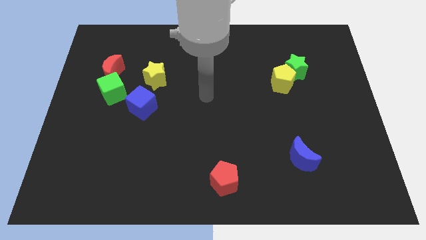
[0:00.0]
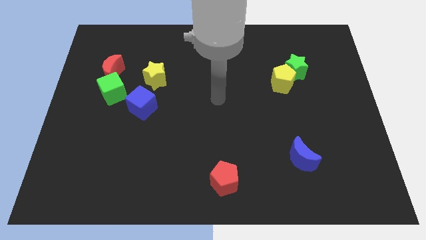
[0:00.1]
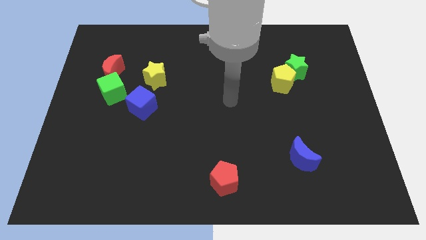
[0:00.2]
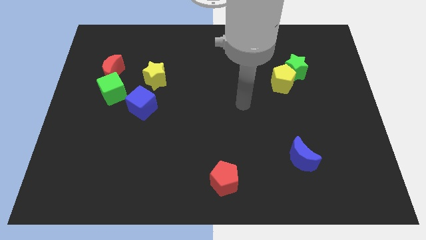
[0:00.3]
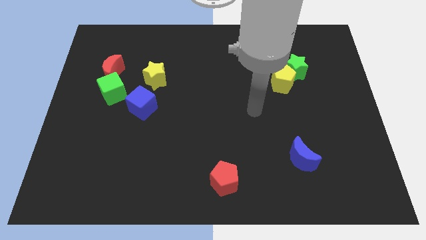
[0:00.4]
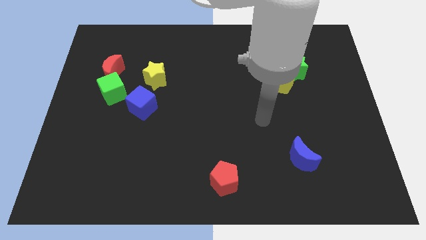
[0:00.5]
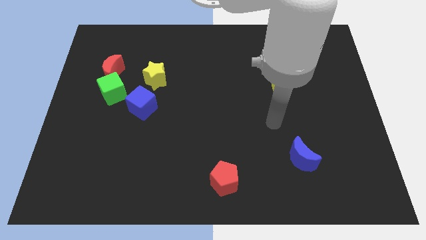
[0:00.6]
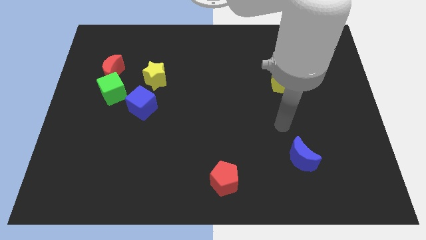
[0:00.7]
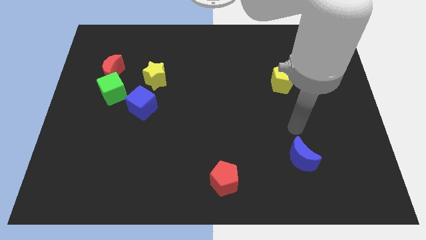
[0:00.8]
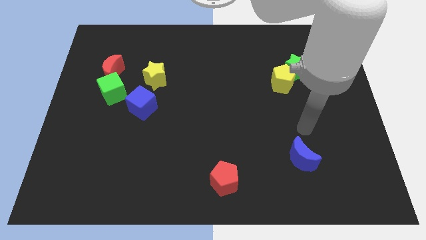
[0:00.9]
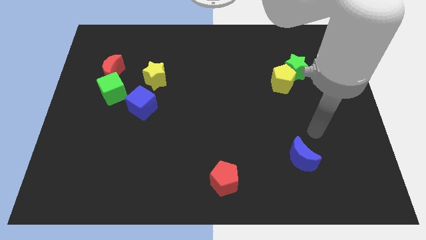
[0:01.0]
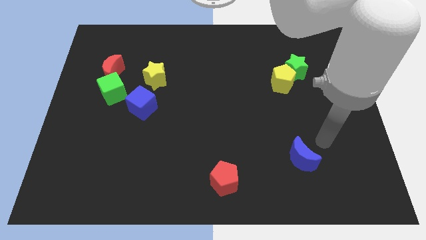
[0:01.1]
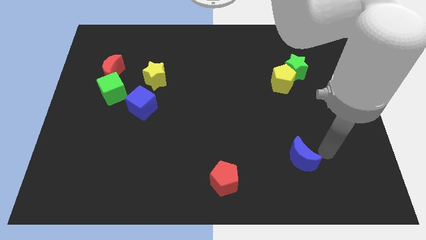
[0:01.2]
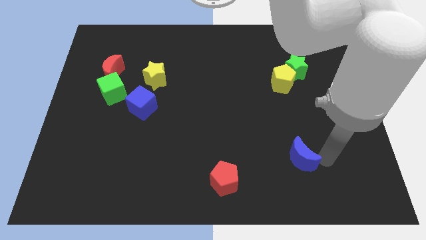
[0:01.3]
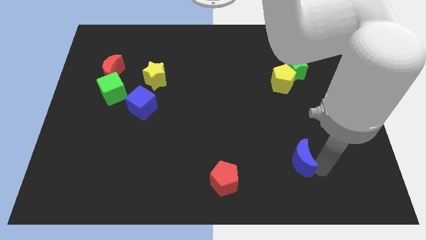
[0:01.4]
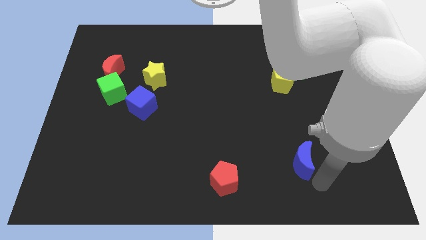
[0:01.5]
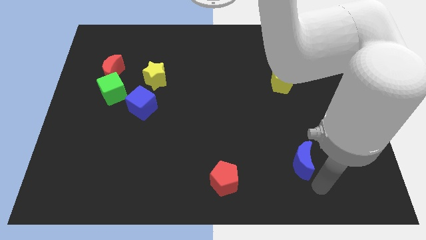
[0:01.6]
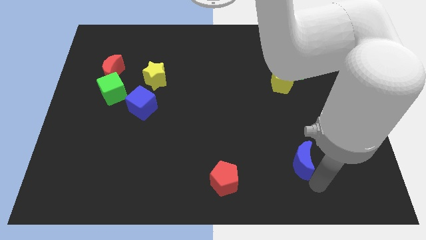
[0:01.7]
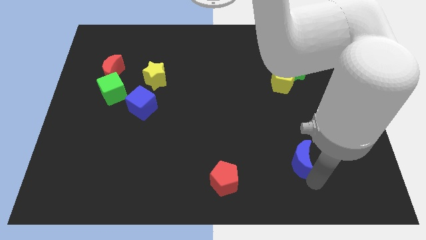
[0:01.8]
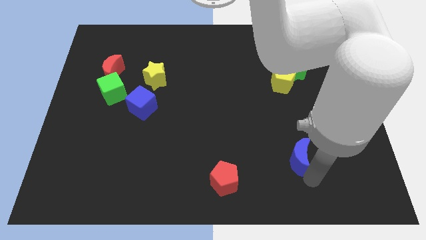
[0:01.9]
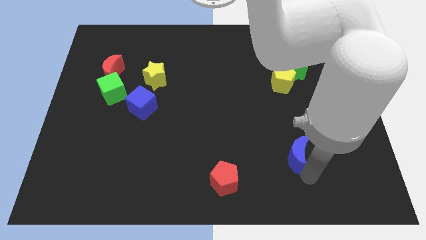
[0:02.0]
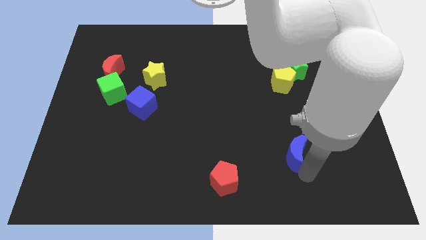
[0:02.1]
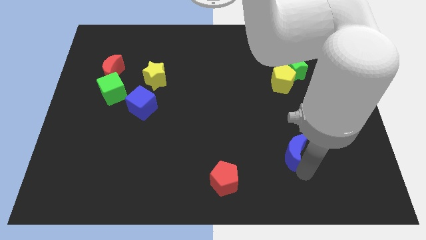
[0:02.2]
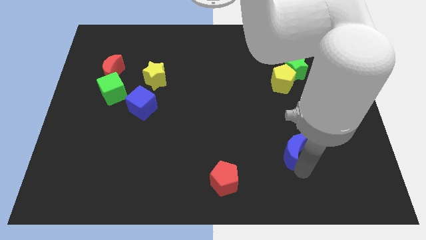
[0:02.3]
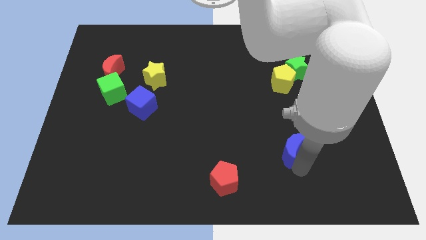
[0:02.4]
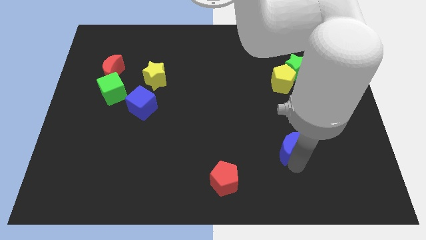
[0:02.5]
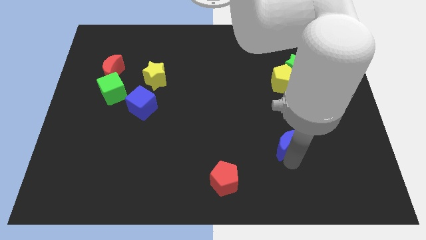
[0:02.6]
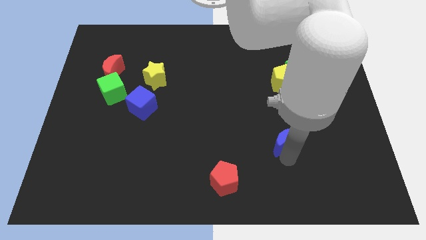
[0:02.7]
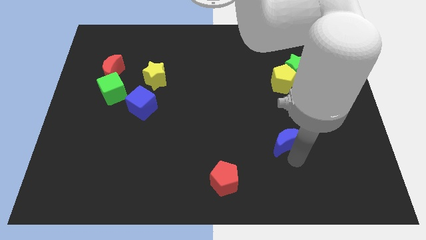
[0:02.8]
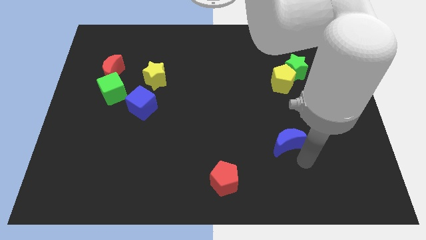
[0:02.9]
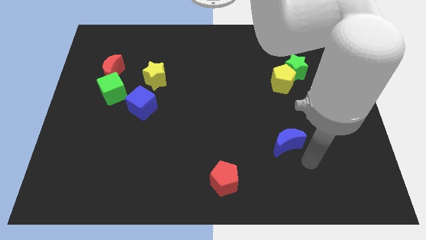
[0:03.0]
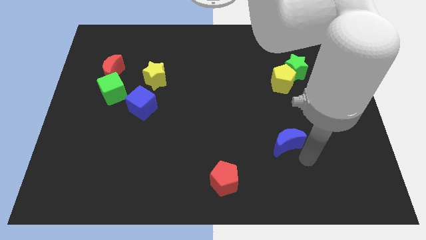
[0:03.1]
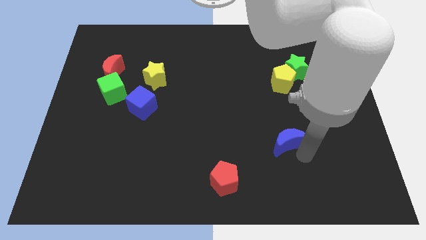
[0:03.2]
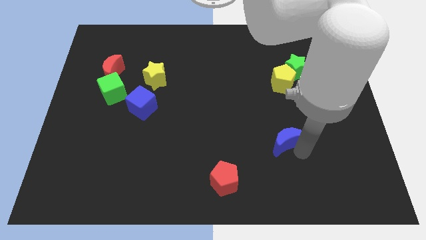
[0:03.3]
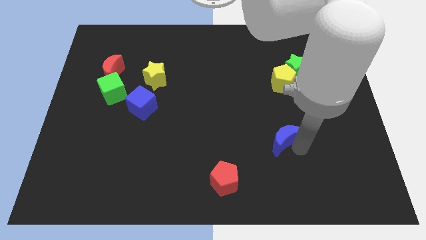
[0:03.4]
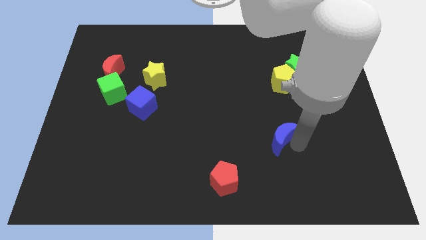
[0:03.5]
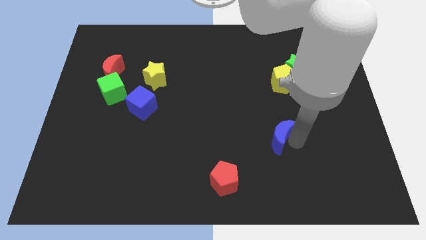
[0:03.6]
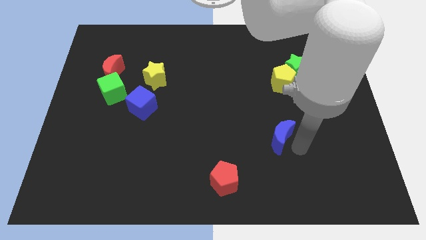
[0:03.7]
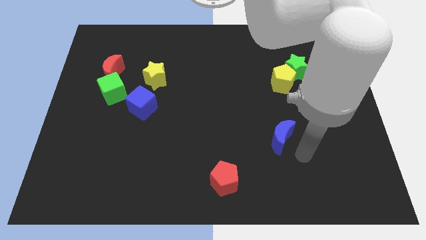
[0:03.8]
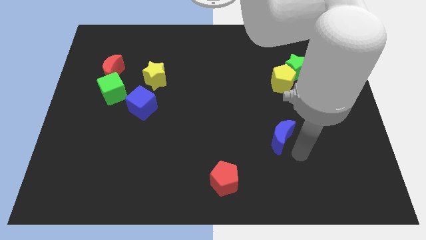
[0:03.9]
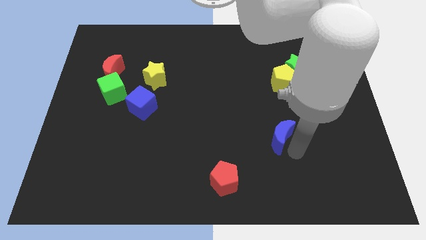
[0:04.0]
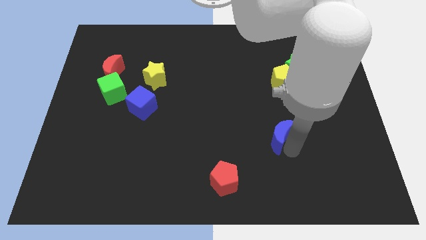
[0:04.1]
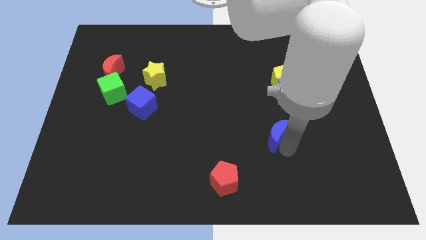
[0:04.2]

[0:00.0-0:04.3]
slightly push the blue moon up and then to the left

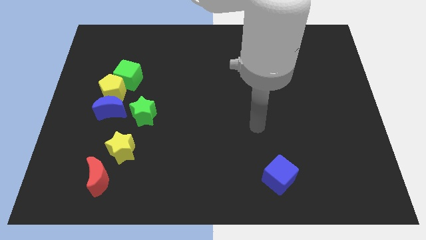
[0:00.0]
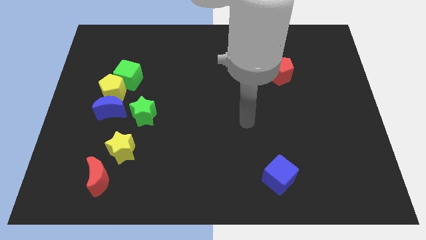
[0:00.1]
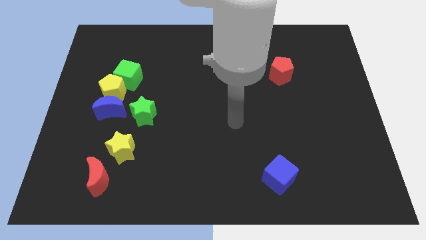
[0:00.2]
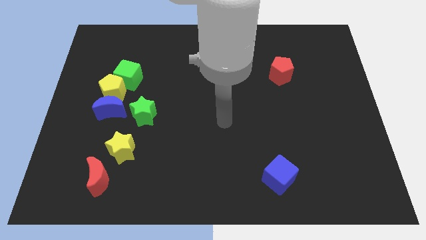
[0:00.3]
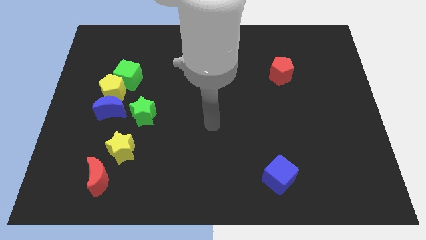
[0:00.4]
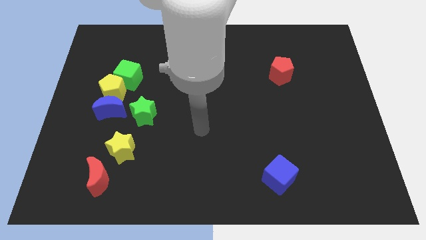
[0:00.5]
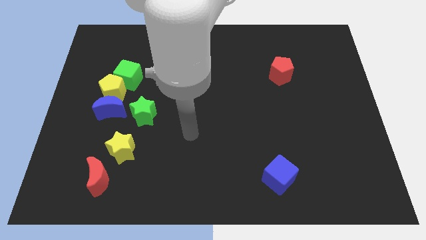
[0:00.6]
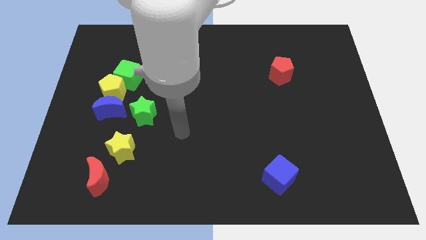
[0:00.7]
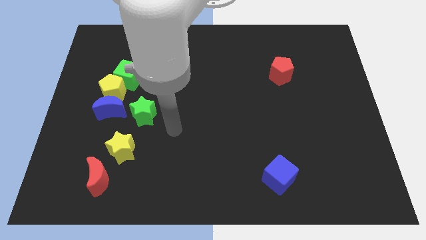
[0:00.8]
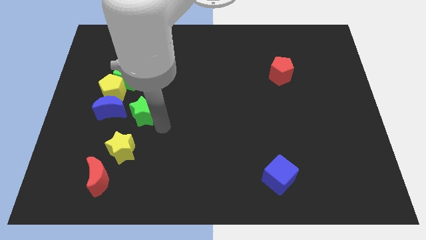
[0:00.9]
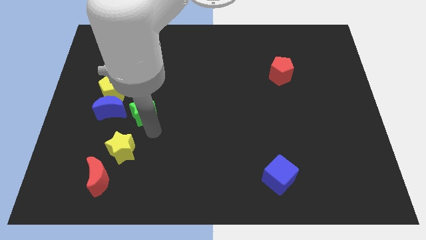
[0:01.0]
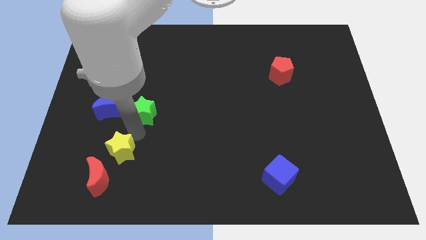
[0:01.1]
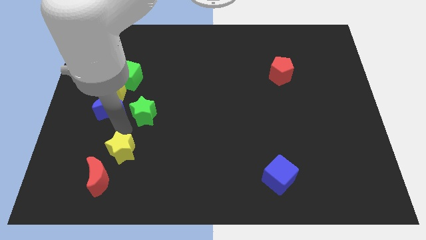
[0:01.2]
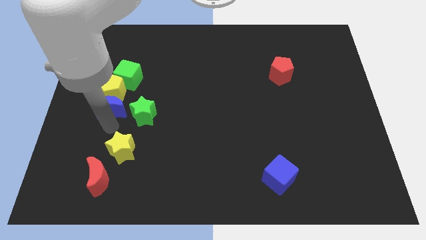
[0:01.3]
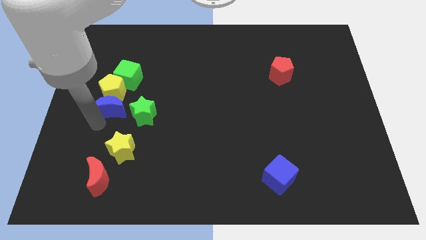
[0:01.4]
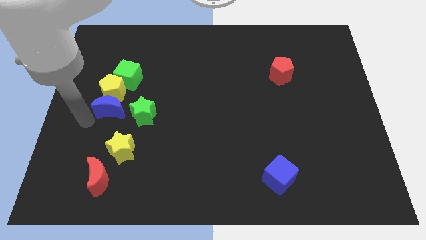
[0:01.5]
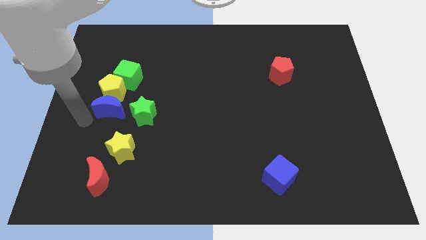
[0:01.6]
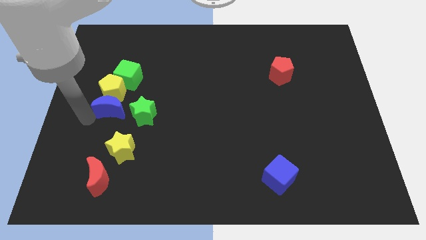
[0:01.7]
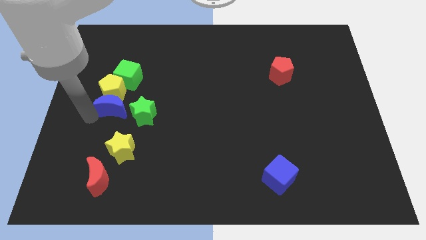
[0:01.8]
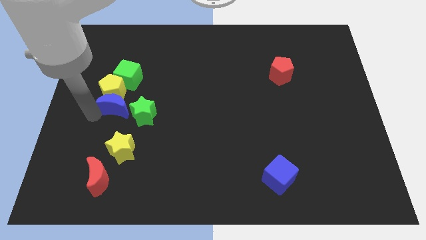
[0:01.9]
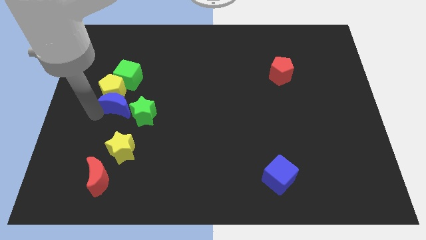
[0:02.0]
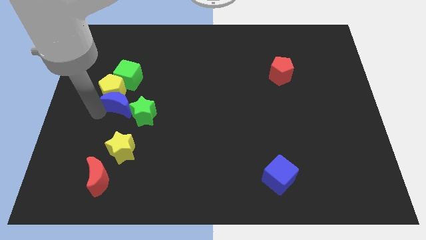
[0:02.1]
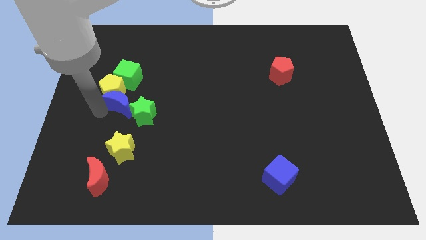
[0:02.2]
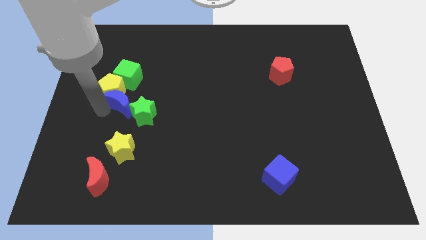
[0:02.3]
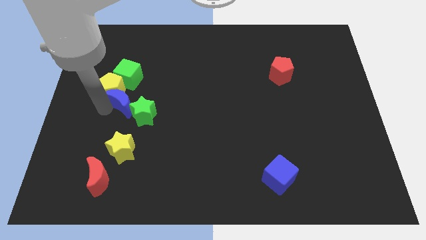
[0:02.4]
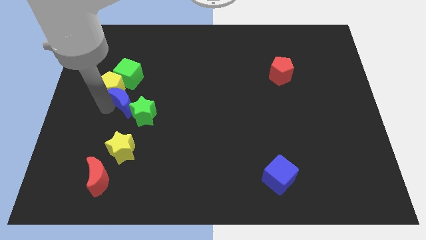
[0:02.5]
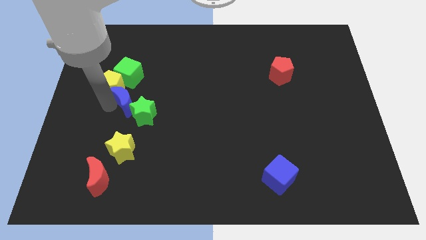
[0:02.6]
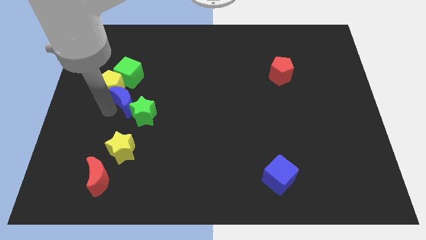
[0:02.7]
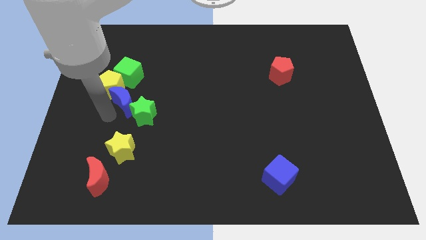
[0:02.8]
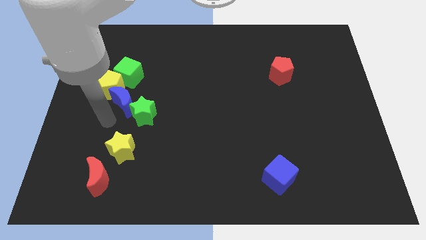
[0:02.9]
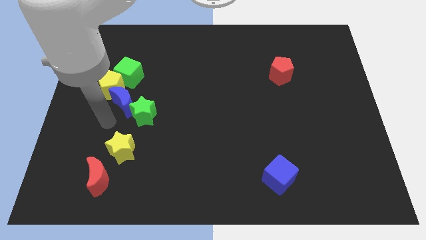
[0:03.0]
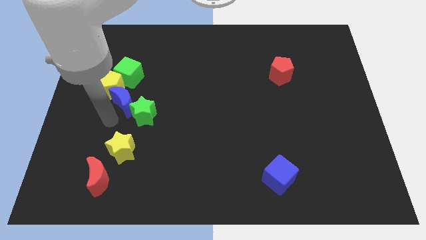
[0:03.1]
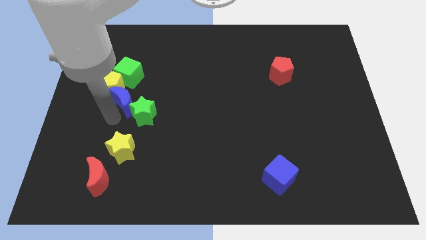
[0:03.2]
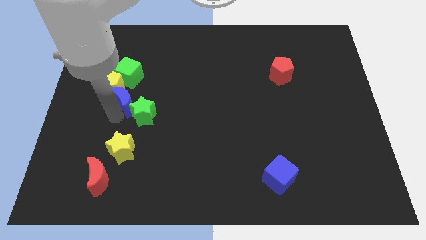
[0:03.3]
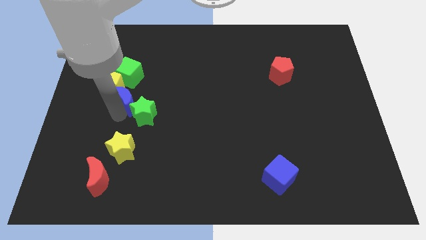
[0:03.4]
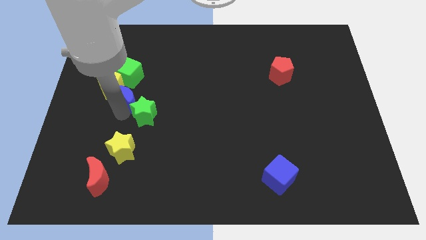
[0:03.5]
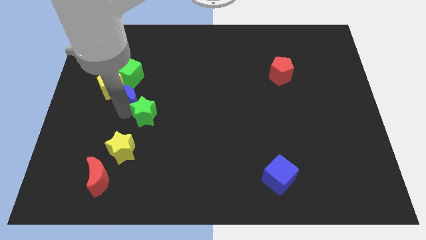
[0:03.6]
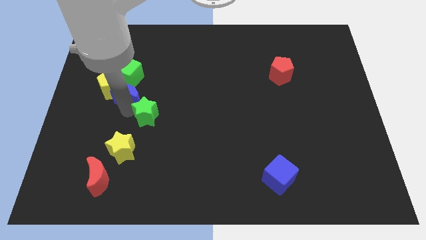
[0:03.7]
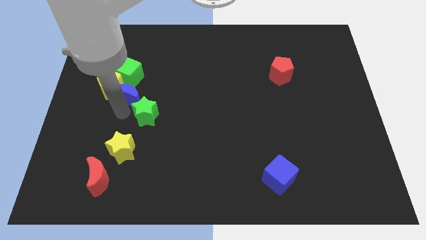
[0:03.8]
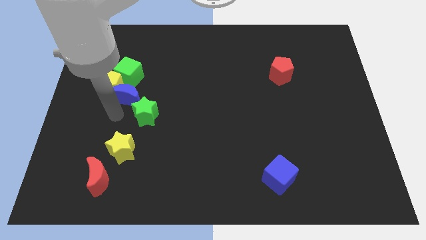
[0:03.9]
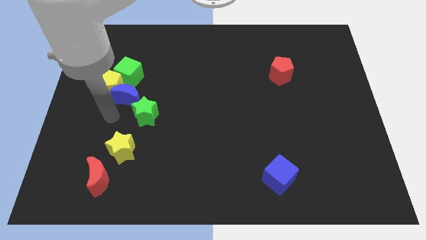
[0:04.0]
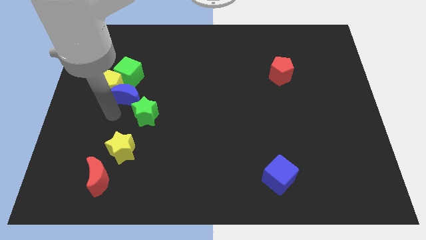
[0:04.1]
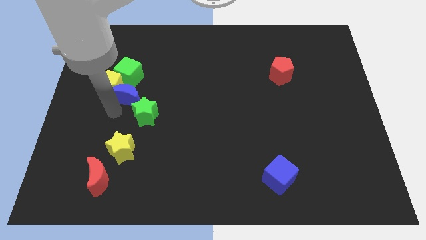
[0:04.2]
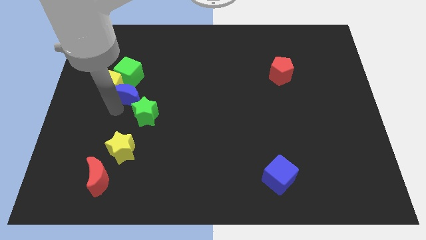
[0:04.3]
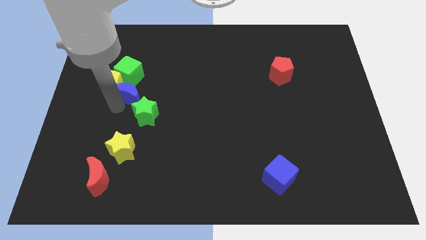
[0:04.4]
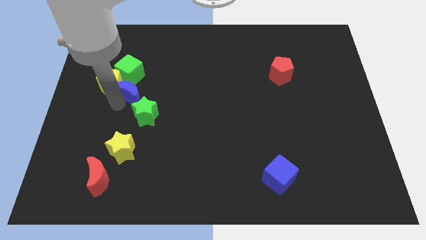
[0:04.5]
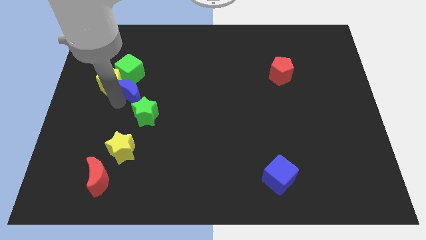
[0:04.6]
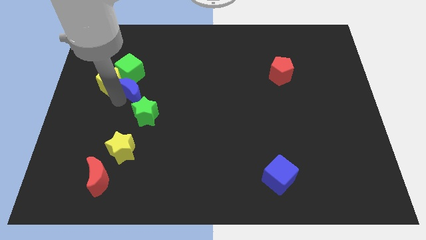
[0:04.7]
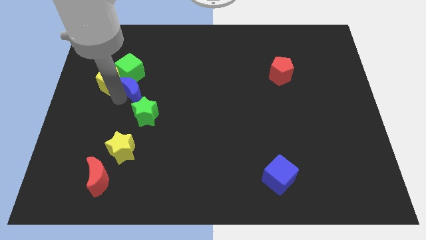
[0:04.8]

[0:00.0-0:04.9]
slide the blue moon upwards and then to the right somewhat
